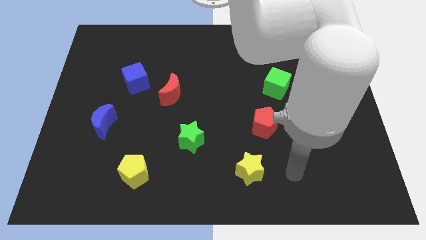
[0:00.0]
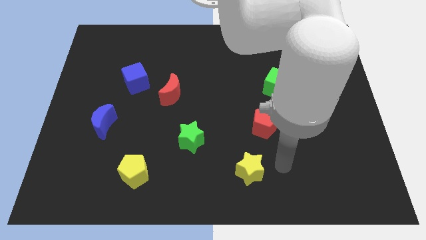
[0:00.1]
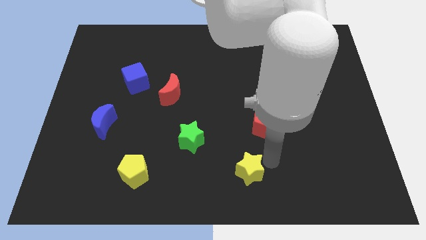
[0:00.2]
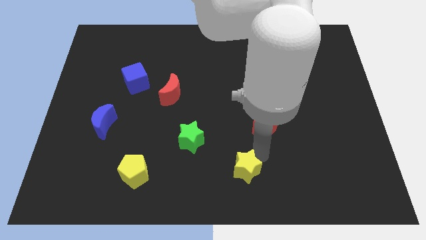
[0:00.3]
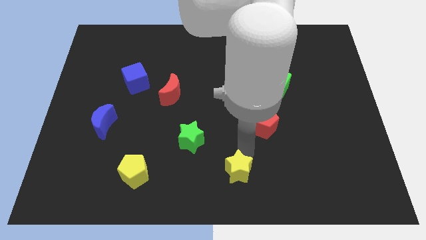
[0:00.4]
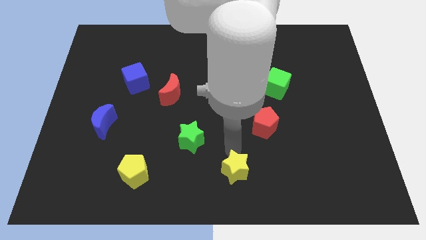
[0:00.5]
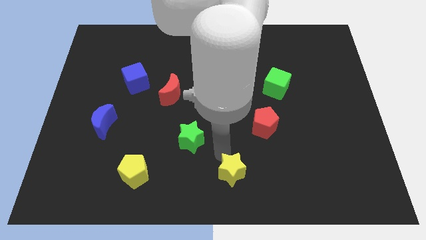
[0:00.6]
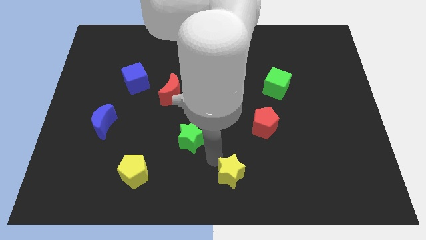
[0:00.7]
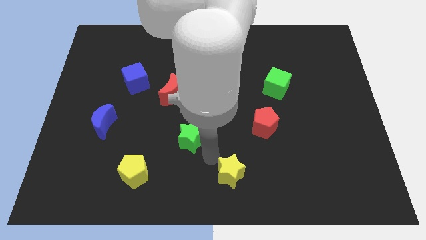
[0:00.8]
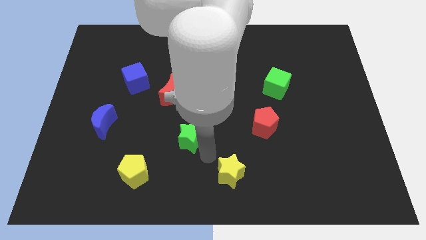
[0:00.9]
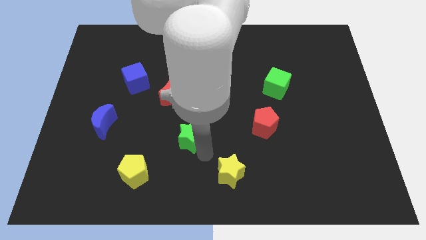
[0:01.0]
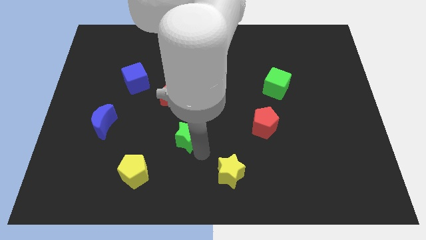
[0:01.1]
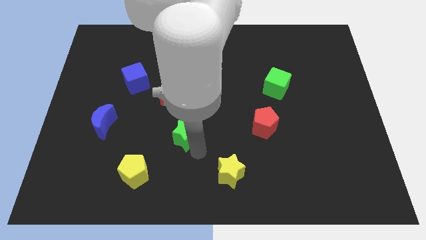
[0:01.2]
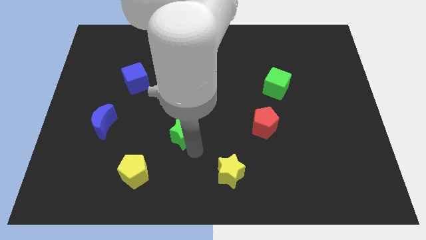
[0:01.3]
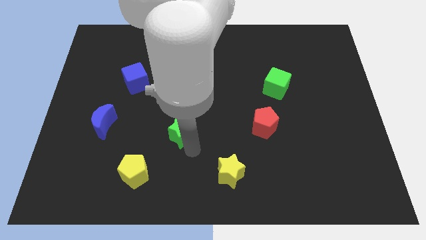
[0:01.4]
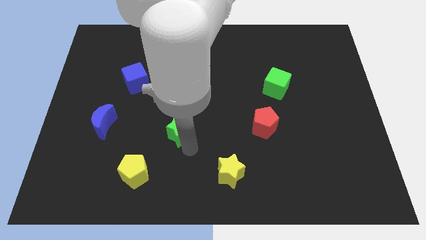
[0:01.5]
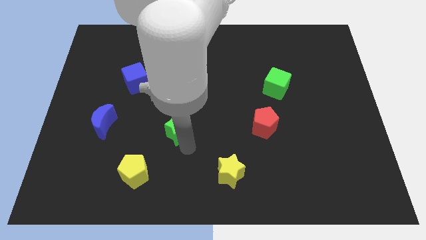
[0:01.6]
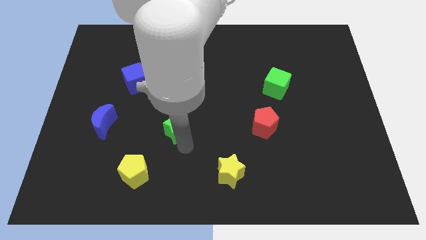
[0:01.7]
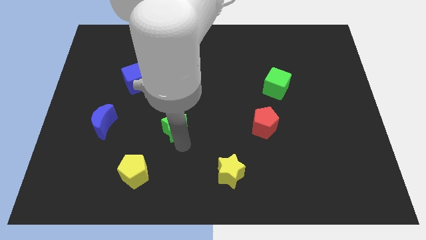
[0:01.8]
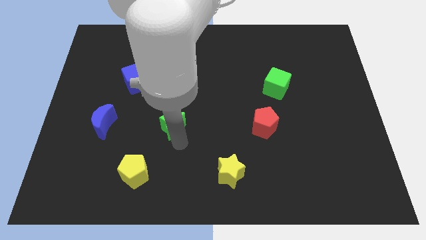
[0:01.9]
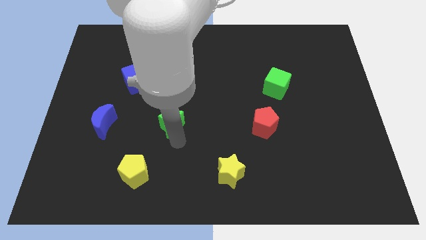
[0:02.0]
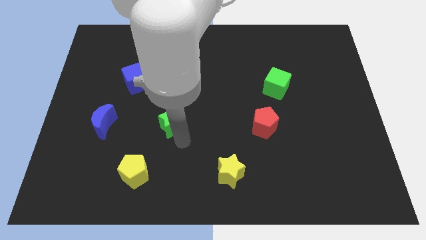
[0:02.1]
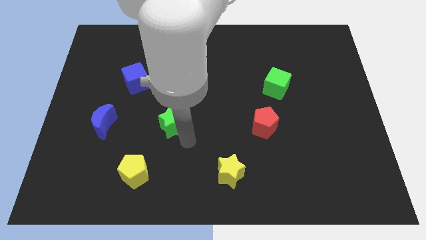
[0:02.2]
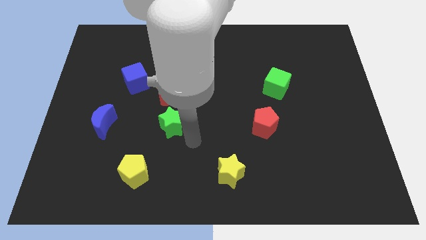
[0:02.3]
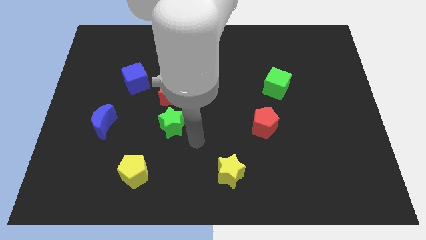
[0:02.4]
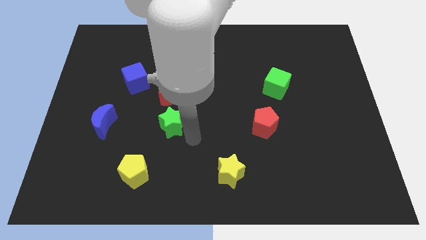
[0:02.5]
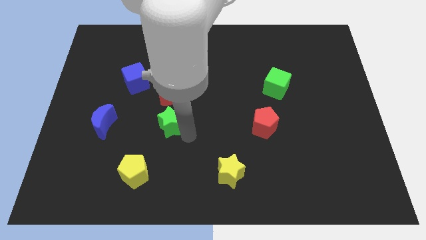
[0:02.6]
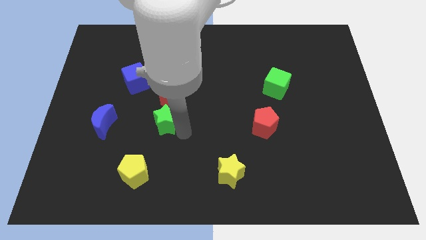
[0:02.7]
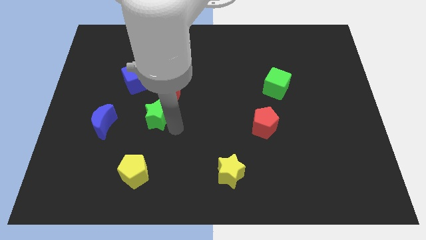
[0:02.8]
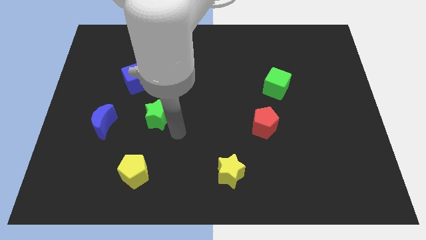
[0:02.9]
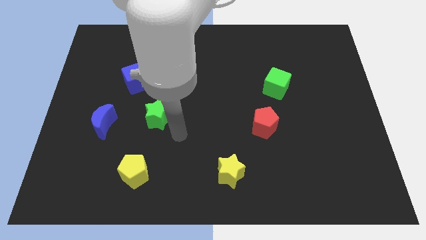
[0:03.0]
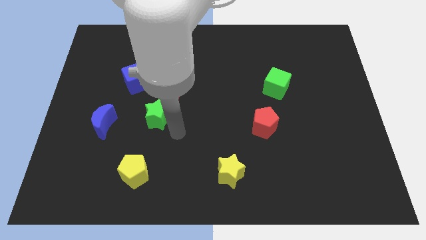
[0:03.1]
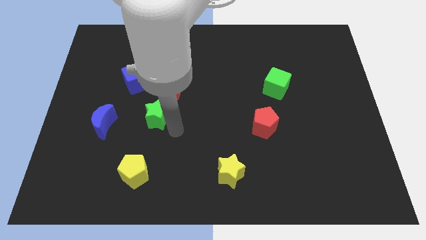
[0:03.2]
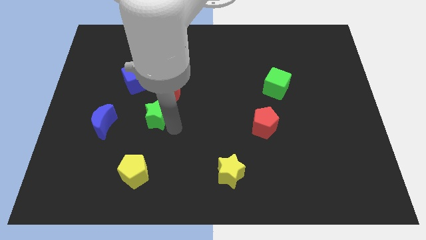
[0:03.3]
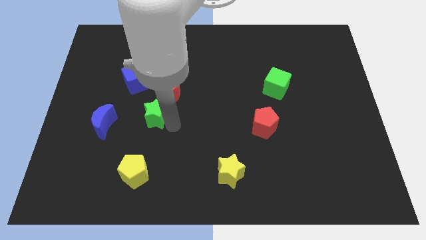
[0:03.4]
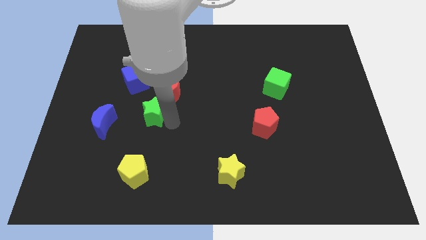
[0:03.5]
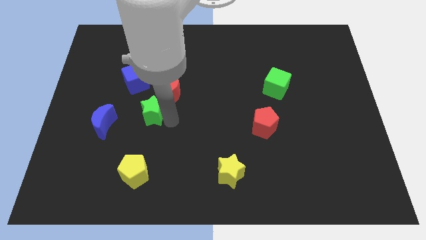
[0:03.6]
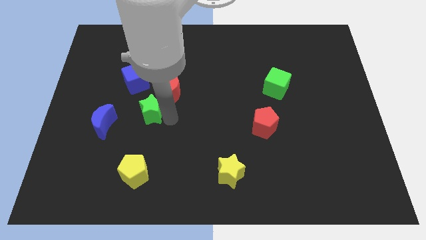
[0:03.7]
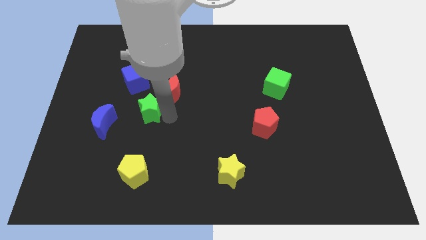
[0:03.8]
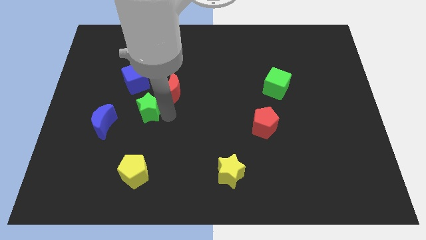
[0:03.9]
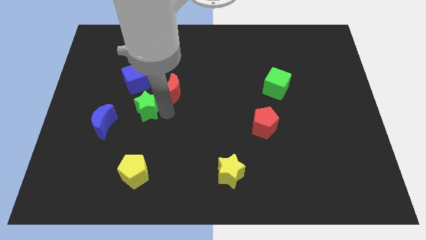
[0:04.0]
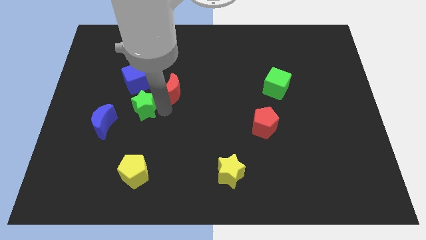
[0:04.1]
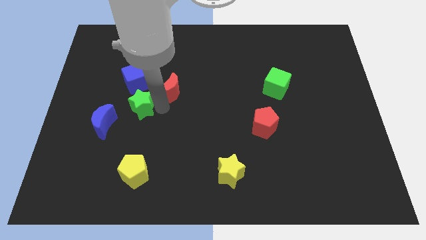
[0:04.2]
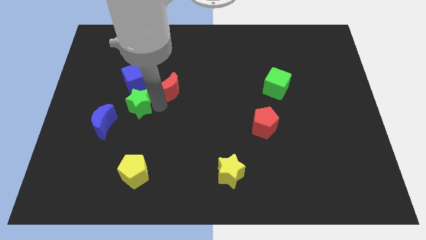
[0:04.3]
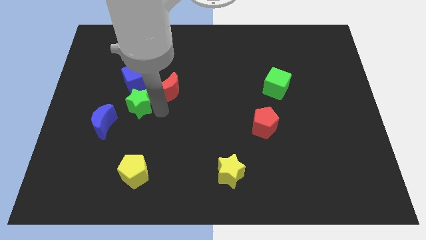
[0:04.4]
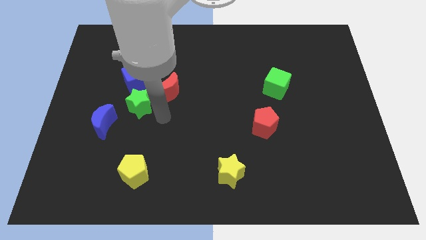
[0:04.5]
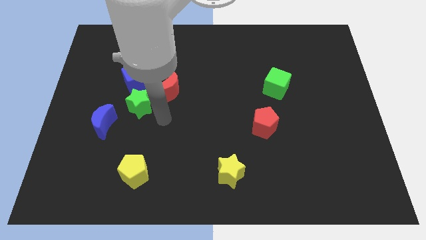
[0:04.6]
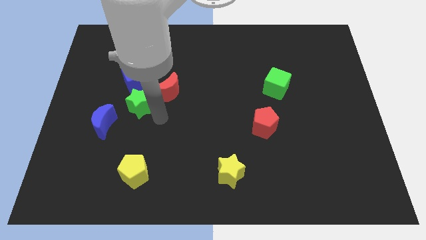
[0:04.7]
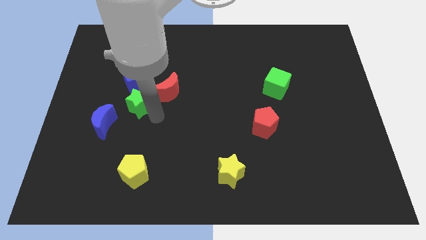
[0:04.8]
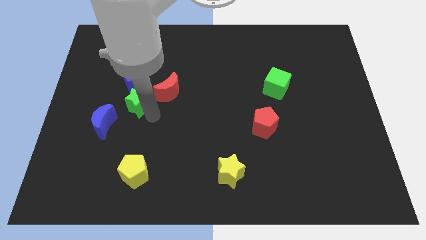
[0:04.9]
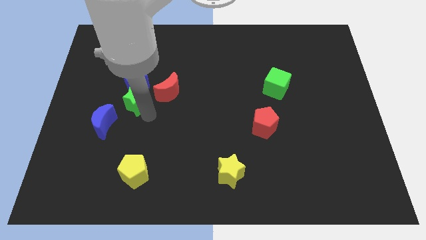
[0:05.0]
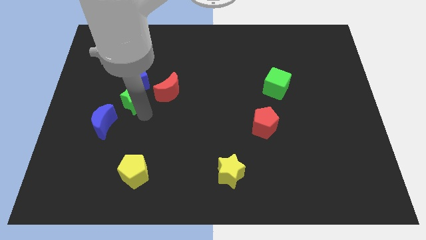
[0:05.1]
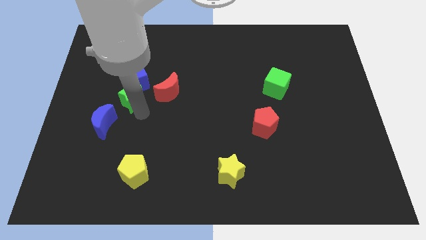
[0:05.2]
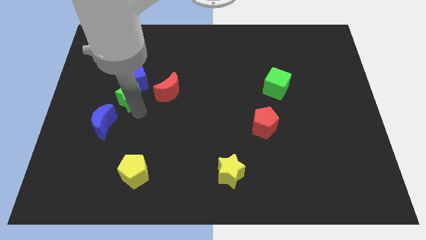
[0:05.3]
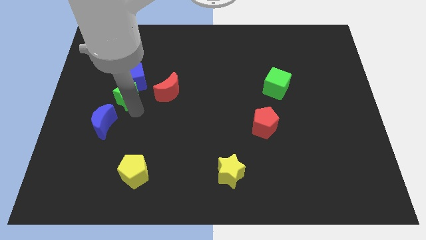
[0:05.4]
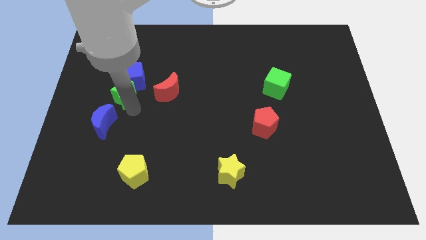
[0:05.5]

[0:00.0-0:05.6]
push the green star upwards and left diagonally

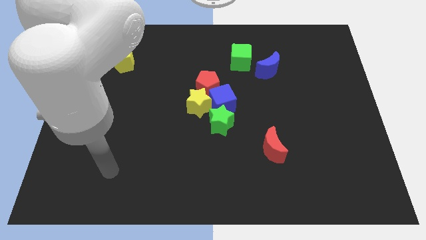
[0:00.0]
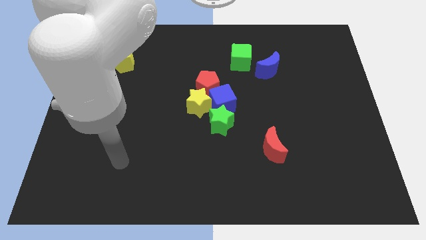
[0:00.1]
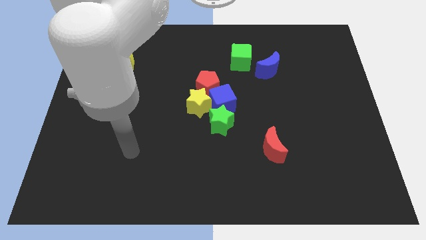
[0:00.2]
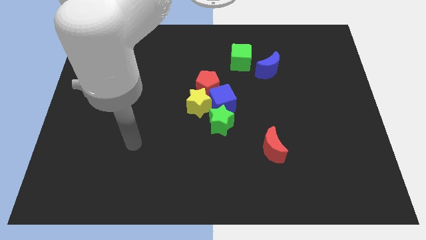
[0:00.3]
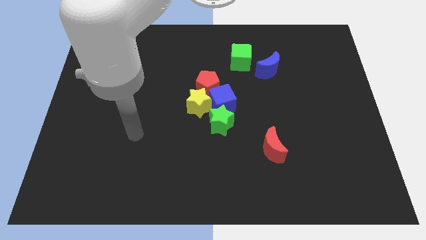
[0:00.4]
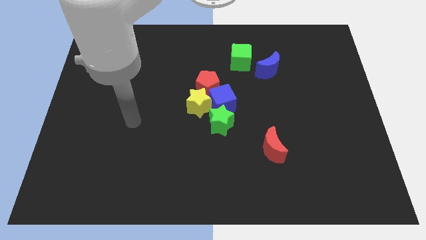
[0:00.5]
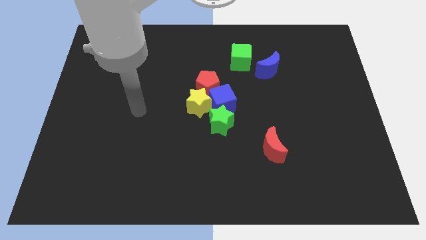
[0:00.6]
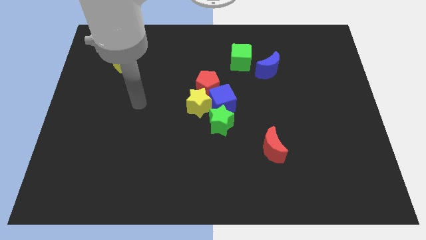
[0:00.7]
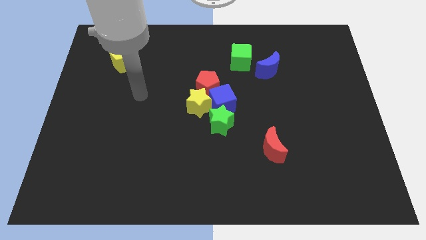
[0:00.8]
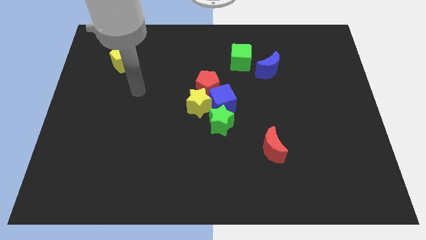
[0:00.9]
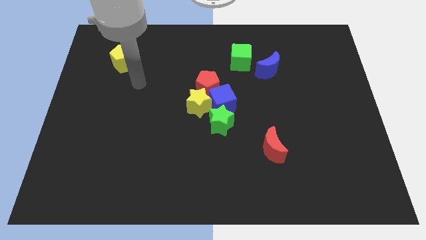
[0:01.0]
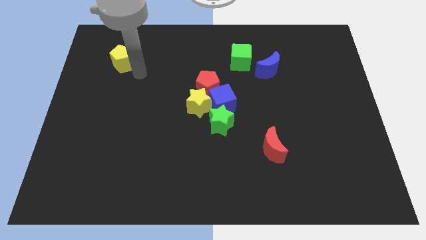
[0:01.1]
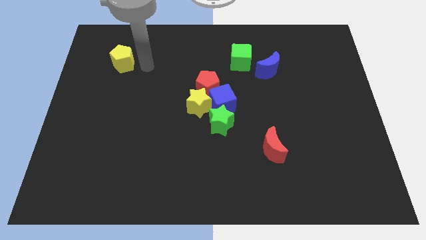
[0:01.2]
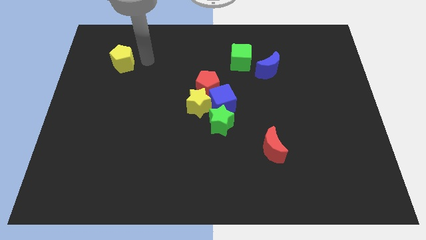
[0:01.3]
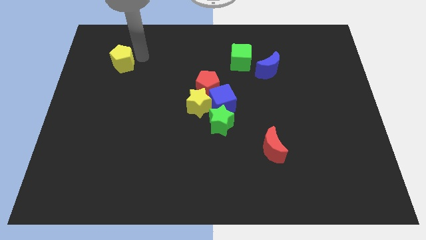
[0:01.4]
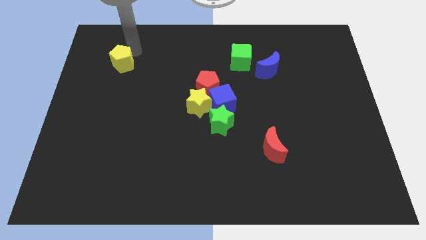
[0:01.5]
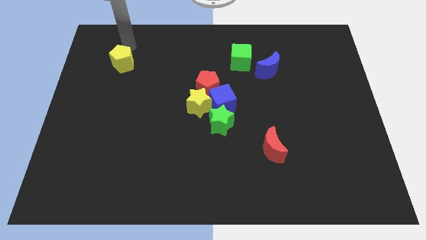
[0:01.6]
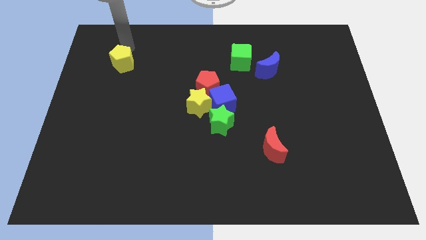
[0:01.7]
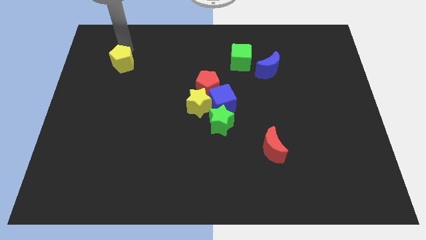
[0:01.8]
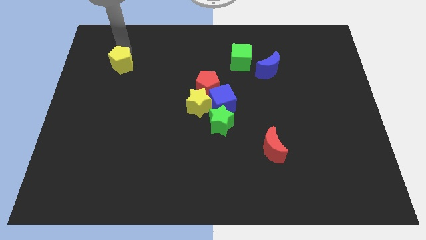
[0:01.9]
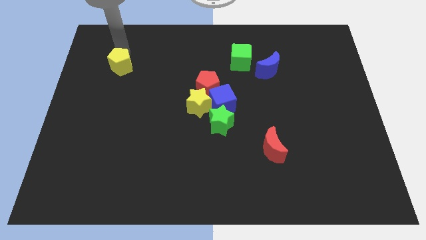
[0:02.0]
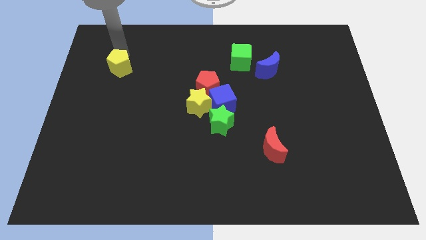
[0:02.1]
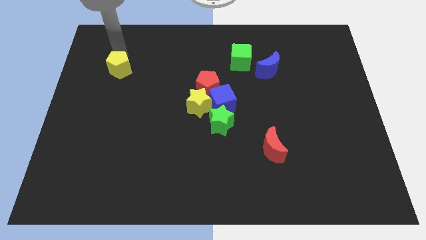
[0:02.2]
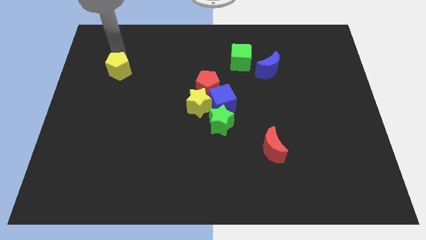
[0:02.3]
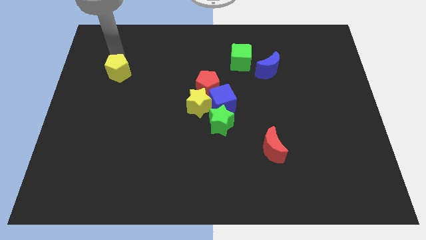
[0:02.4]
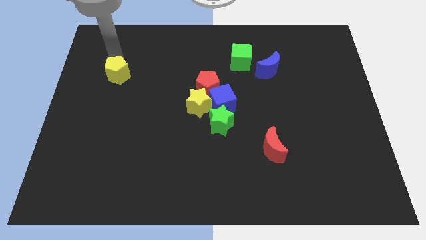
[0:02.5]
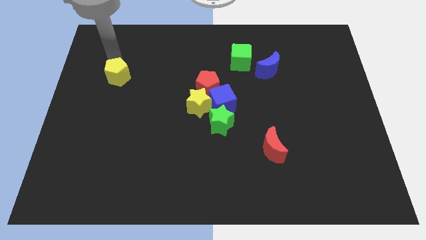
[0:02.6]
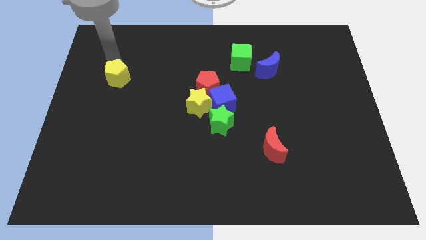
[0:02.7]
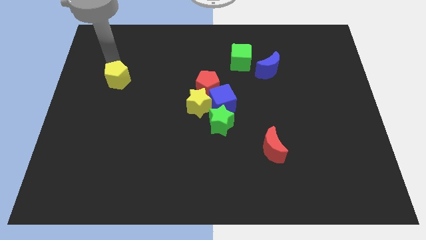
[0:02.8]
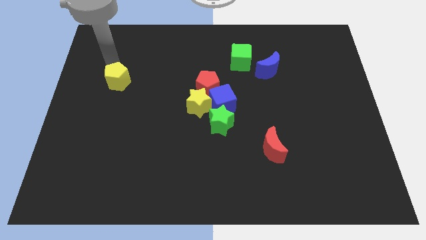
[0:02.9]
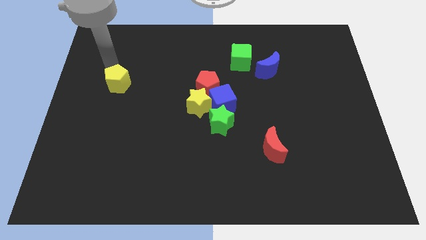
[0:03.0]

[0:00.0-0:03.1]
push the yellow pentagon somewhat downwards
